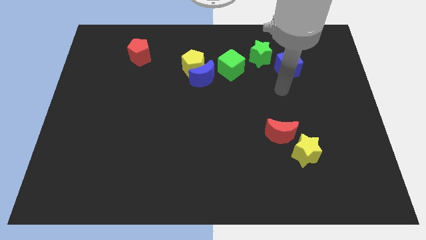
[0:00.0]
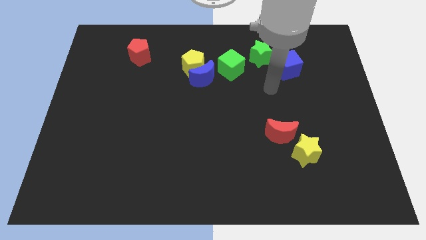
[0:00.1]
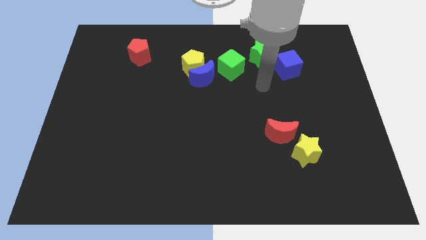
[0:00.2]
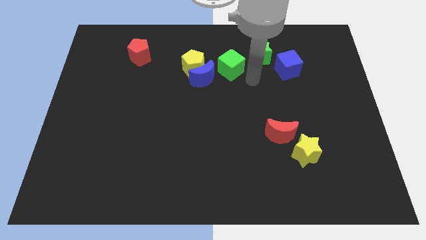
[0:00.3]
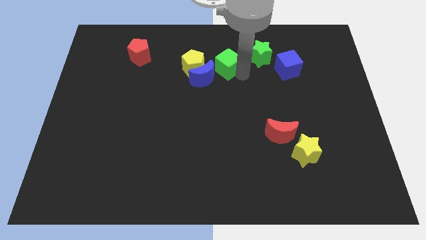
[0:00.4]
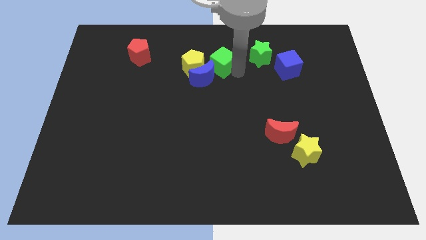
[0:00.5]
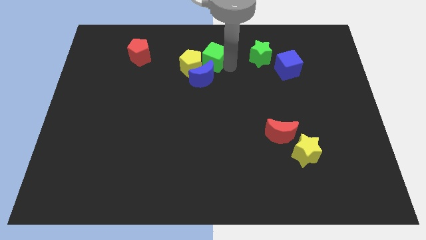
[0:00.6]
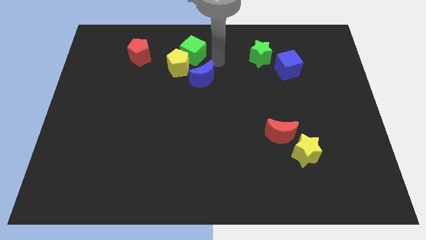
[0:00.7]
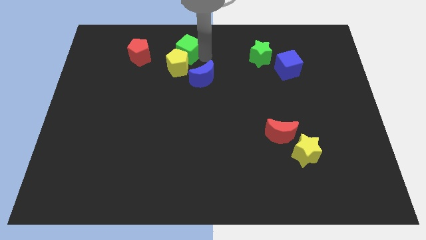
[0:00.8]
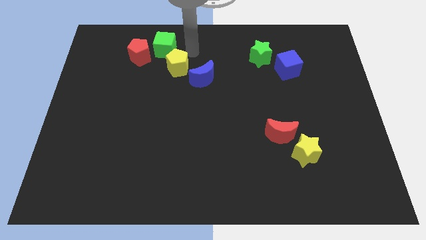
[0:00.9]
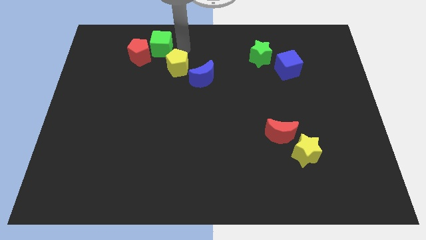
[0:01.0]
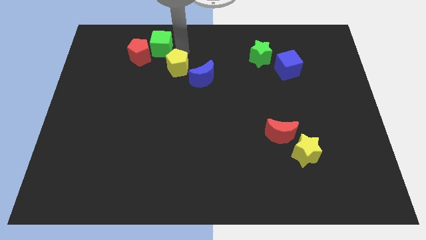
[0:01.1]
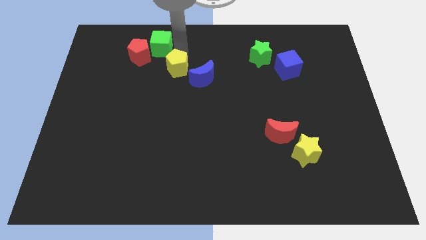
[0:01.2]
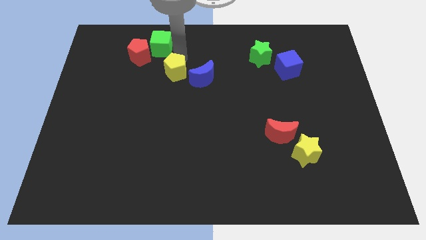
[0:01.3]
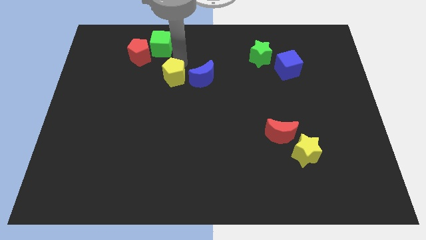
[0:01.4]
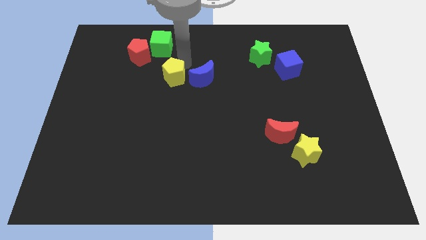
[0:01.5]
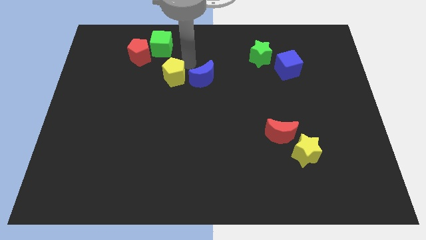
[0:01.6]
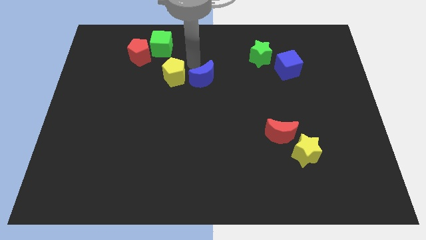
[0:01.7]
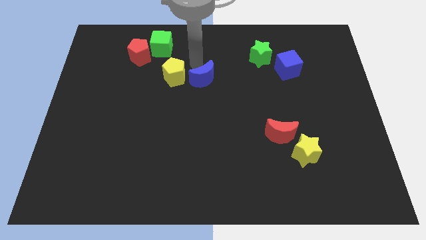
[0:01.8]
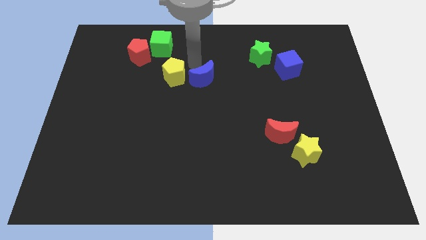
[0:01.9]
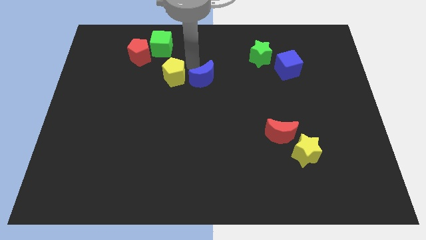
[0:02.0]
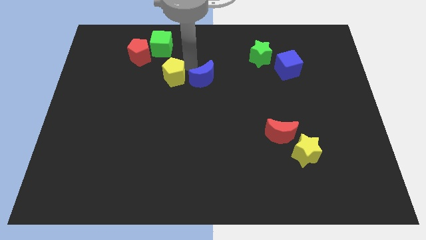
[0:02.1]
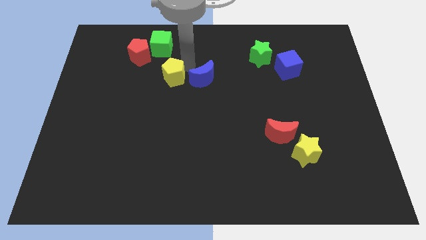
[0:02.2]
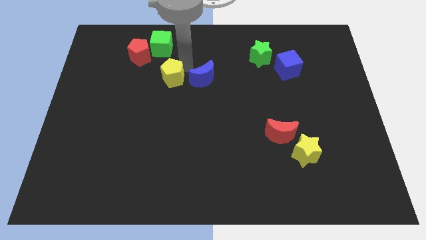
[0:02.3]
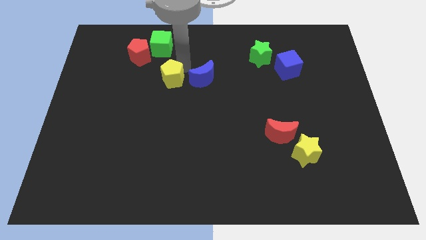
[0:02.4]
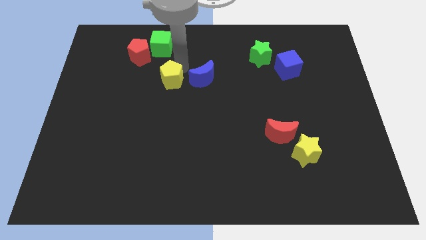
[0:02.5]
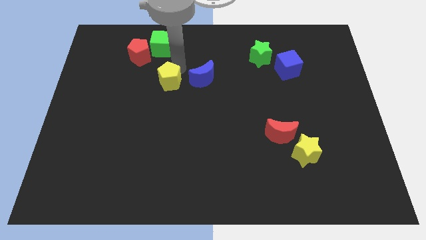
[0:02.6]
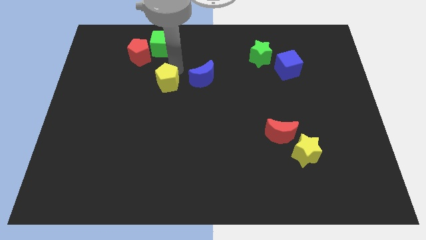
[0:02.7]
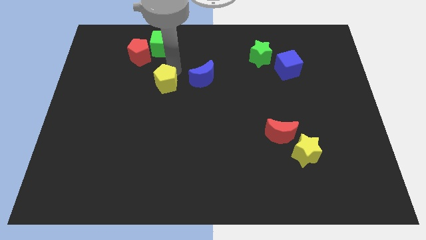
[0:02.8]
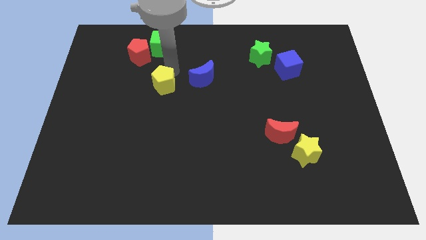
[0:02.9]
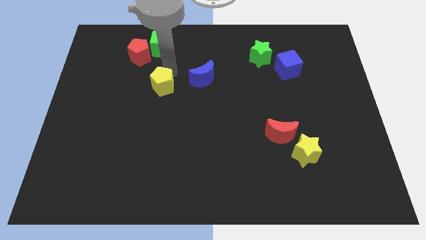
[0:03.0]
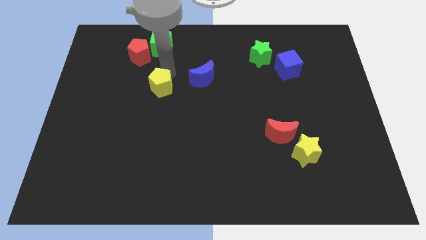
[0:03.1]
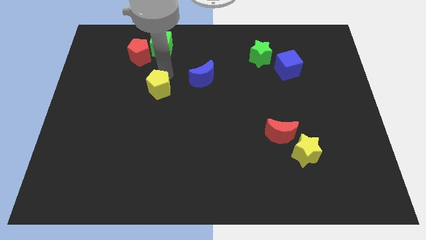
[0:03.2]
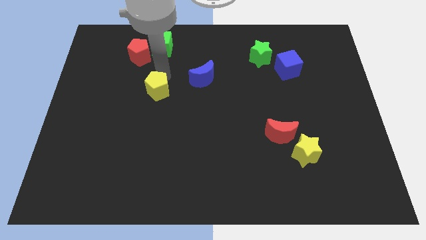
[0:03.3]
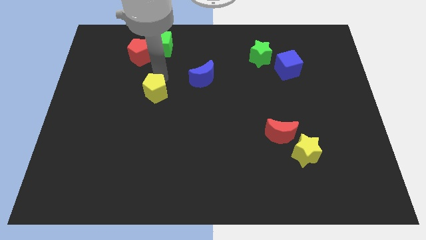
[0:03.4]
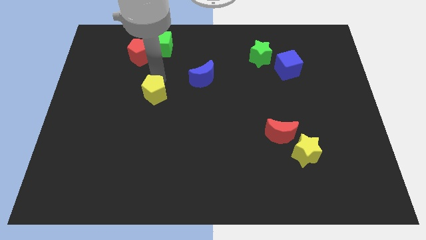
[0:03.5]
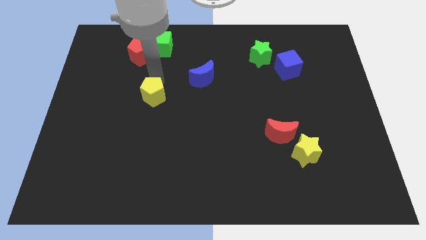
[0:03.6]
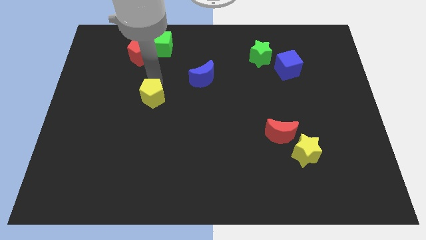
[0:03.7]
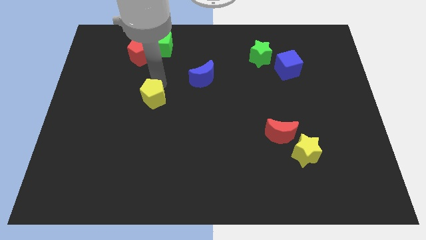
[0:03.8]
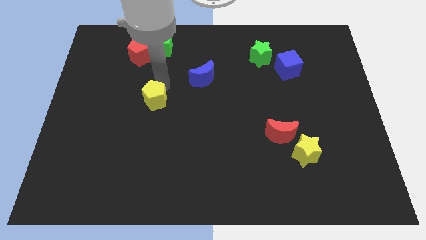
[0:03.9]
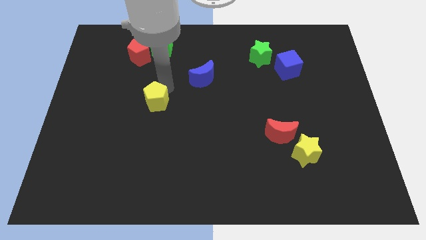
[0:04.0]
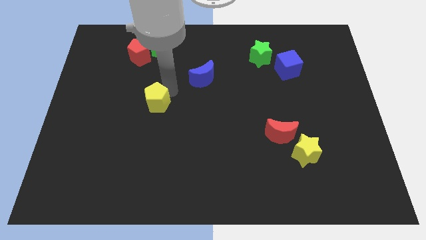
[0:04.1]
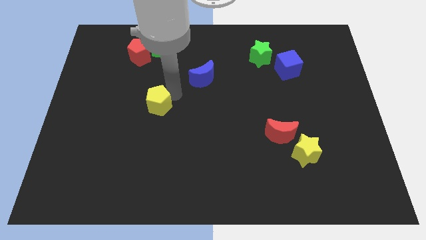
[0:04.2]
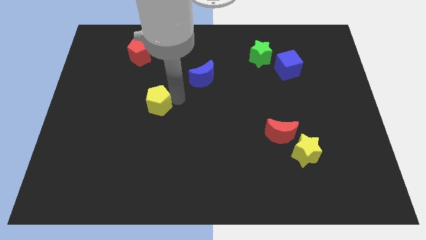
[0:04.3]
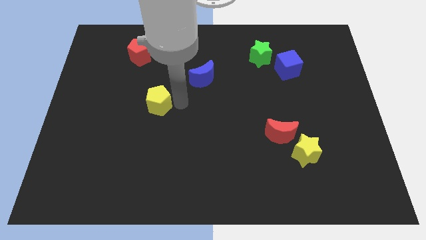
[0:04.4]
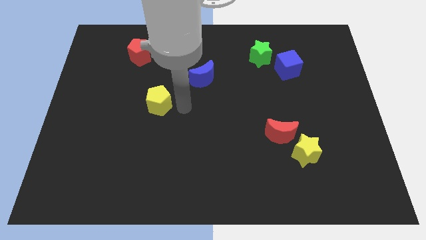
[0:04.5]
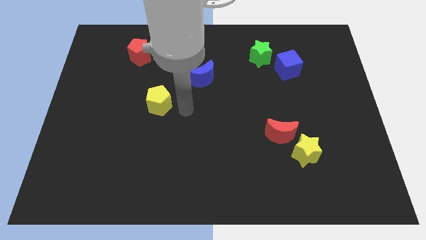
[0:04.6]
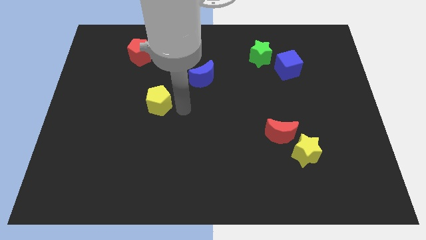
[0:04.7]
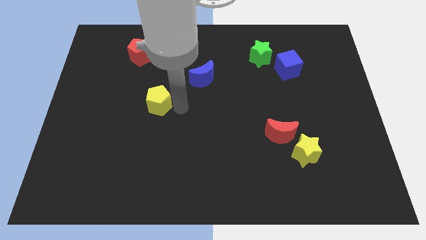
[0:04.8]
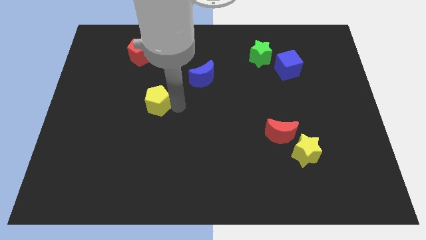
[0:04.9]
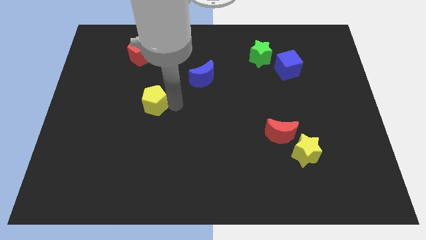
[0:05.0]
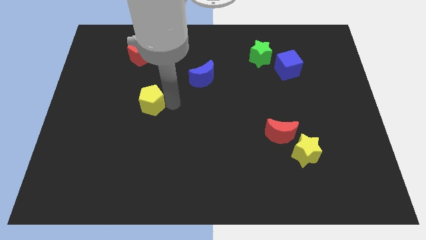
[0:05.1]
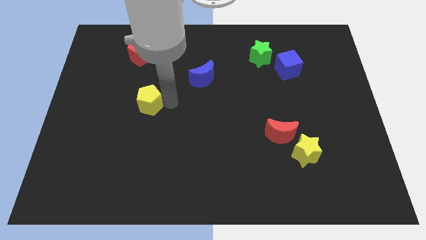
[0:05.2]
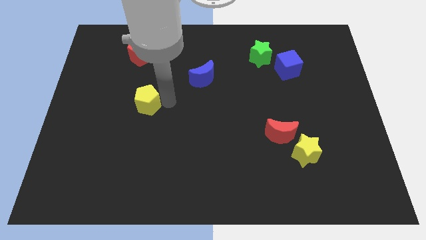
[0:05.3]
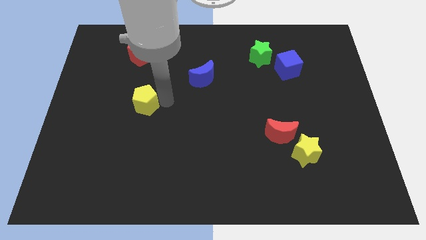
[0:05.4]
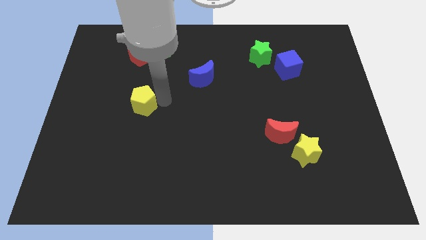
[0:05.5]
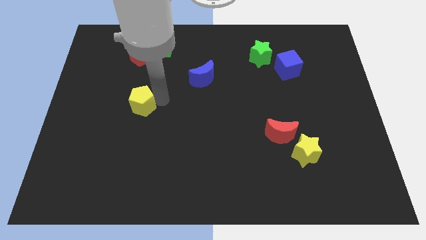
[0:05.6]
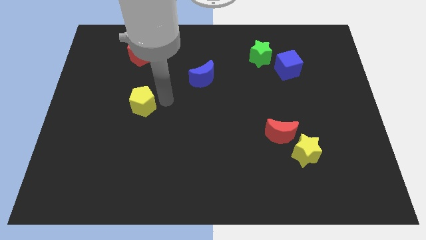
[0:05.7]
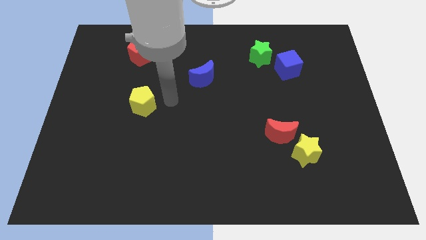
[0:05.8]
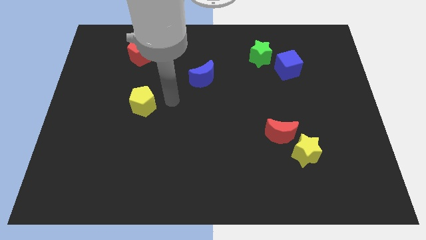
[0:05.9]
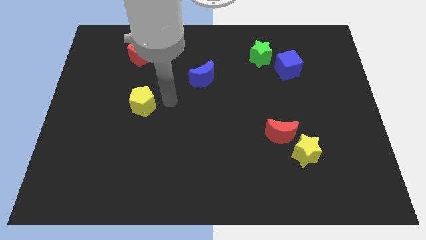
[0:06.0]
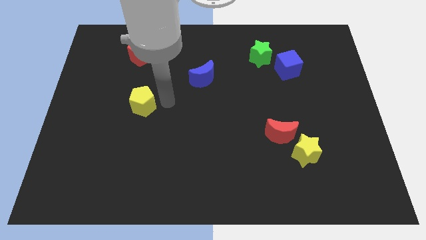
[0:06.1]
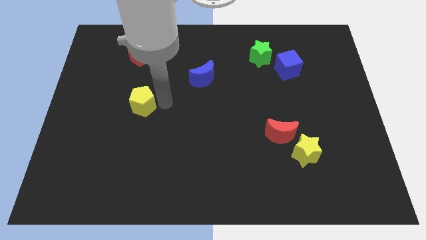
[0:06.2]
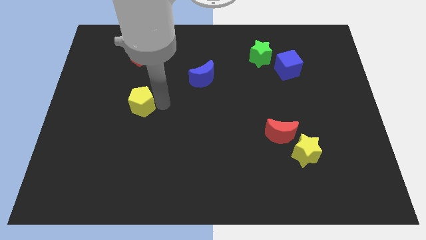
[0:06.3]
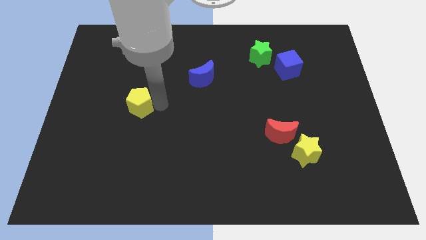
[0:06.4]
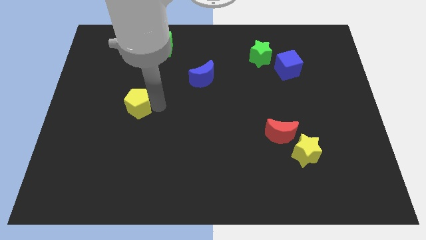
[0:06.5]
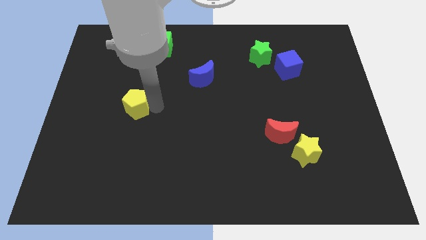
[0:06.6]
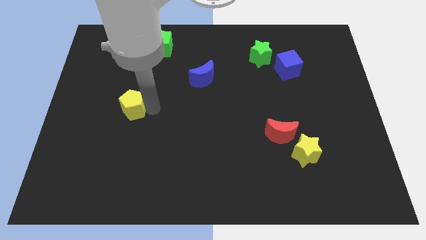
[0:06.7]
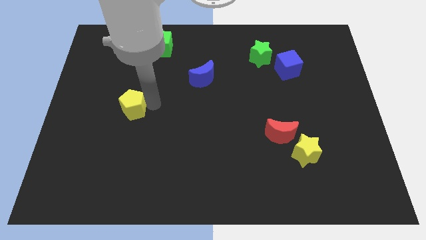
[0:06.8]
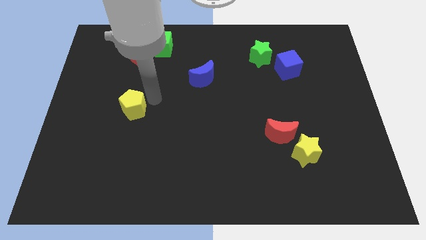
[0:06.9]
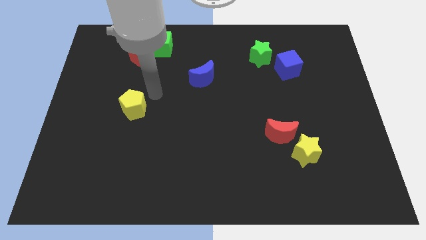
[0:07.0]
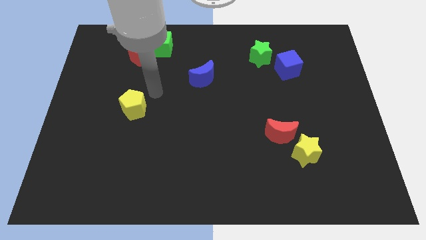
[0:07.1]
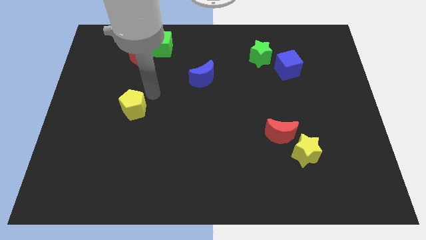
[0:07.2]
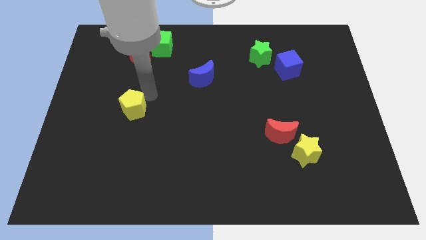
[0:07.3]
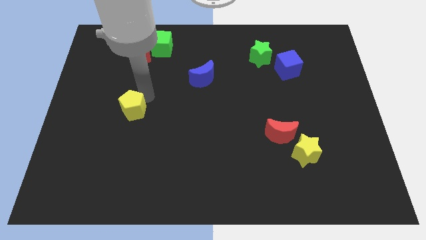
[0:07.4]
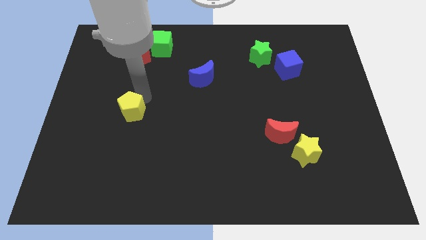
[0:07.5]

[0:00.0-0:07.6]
push the yellow pentagon downwards and then to the left

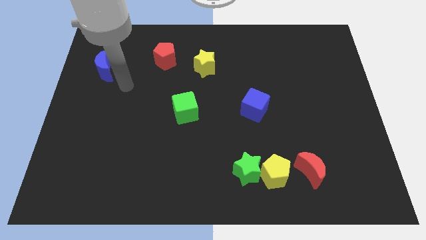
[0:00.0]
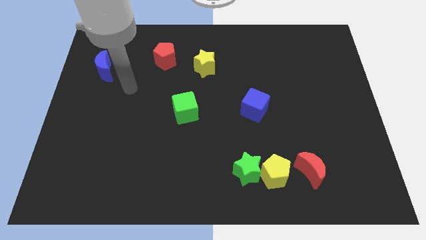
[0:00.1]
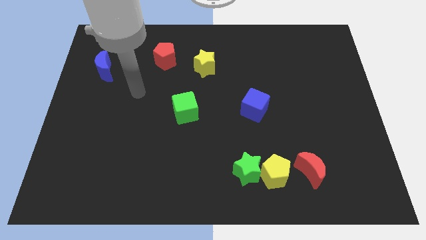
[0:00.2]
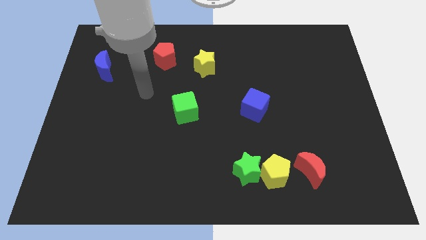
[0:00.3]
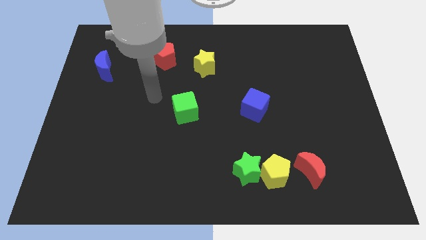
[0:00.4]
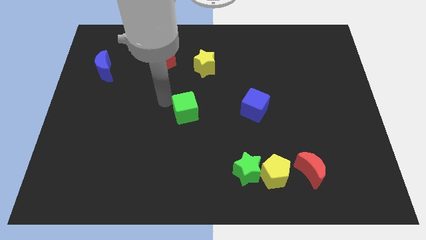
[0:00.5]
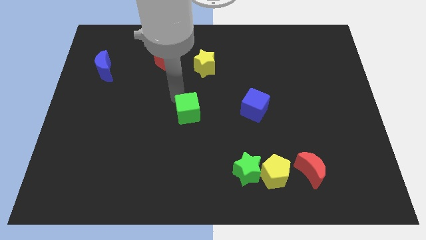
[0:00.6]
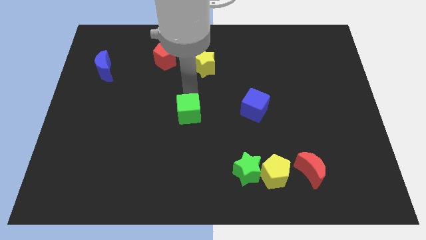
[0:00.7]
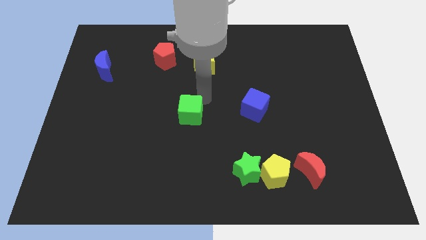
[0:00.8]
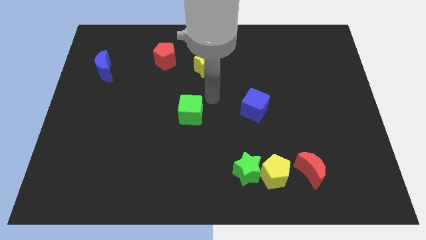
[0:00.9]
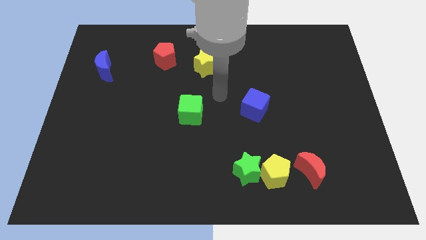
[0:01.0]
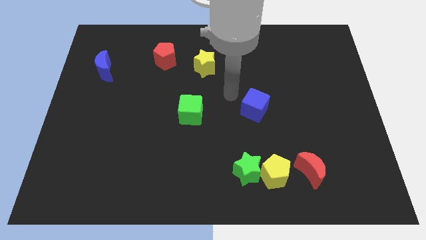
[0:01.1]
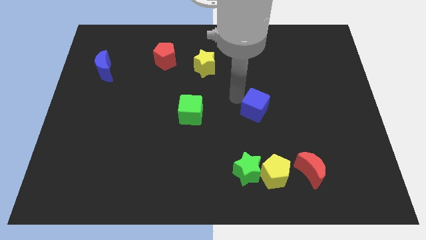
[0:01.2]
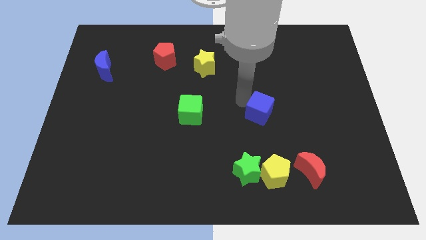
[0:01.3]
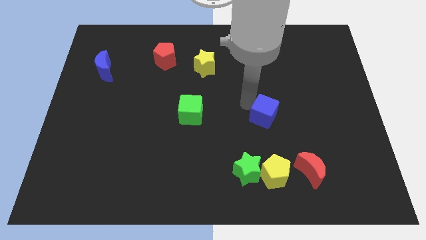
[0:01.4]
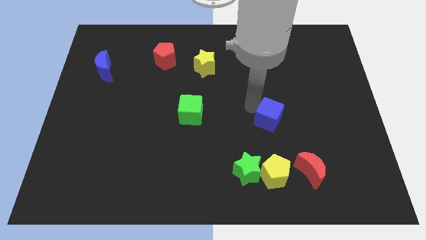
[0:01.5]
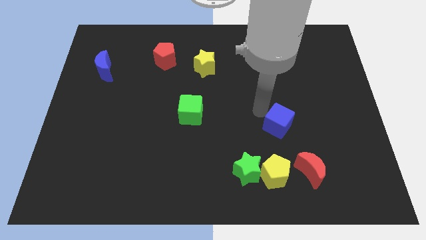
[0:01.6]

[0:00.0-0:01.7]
slightly push the blue cube down and to the right
